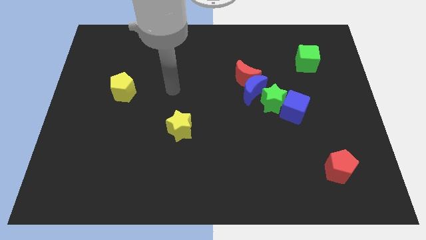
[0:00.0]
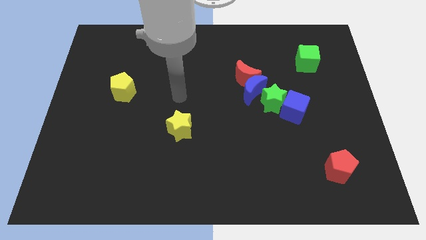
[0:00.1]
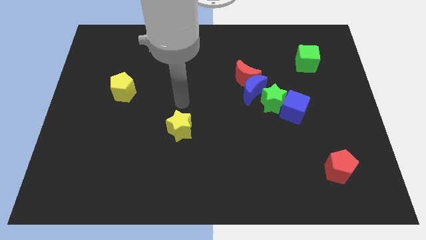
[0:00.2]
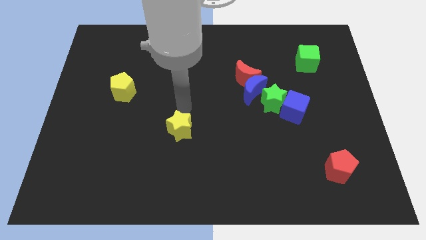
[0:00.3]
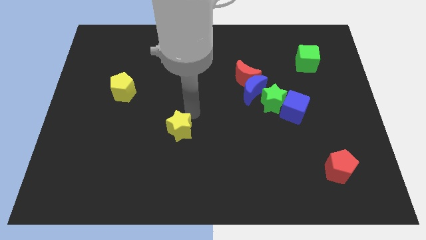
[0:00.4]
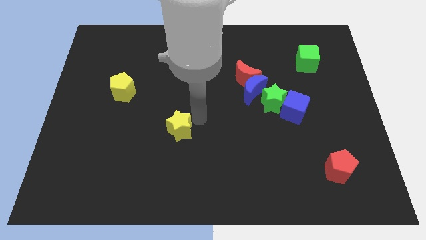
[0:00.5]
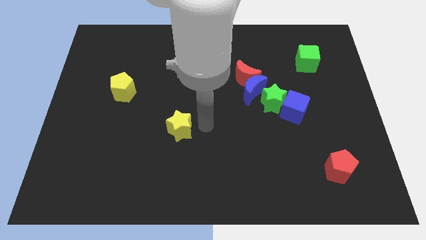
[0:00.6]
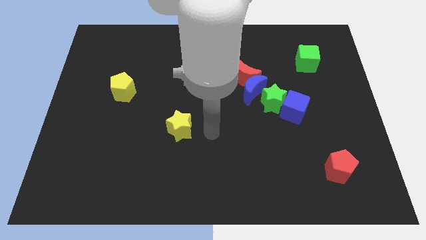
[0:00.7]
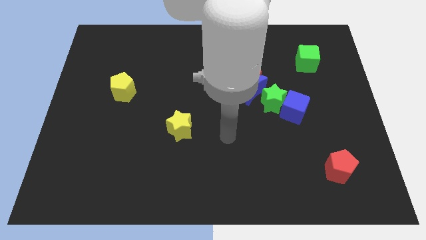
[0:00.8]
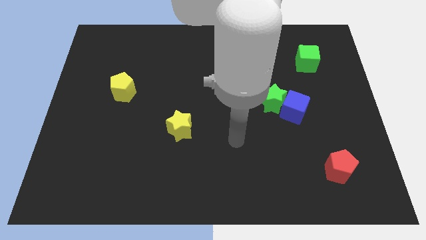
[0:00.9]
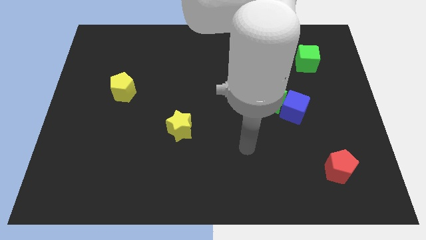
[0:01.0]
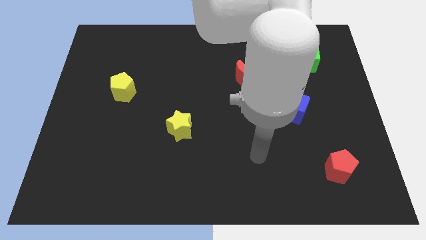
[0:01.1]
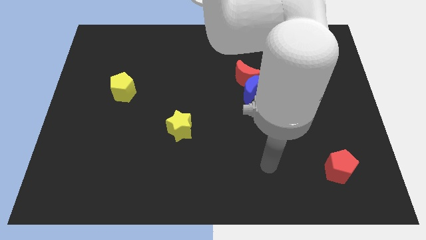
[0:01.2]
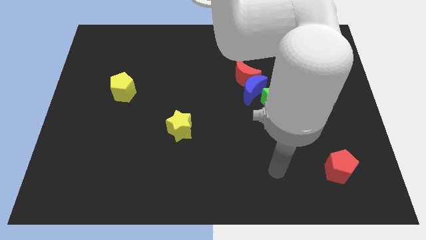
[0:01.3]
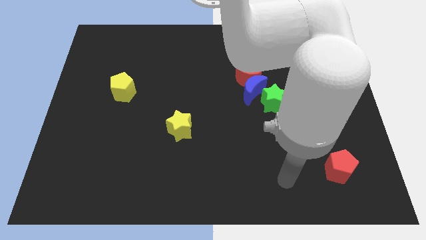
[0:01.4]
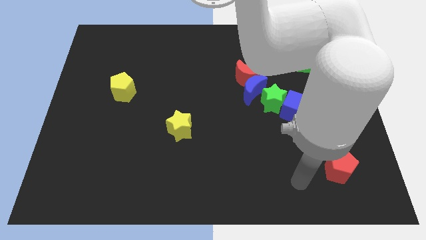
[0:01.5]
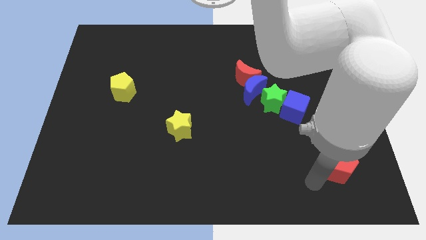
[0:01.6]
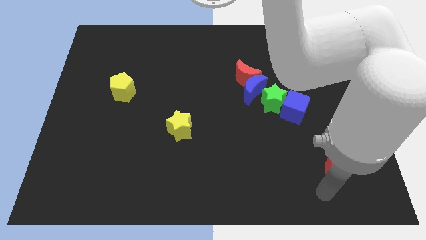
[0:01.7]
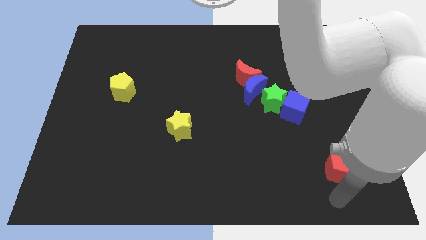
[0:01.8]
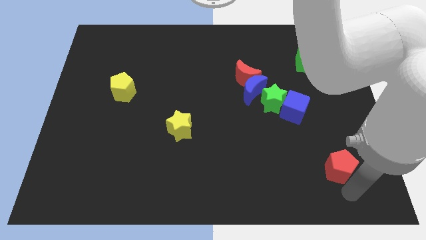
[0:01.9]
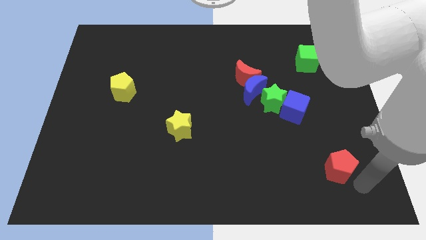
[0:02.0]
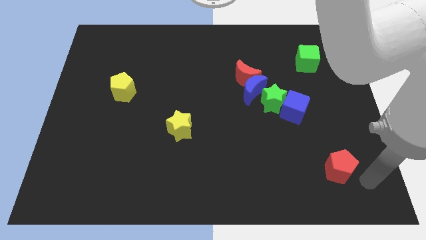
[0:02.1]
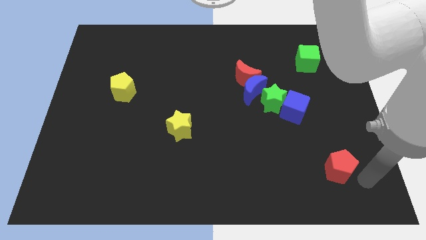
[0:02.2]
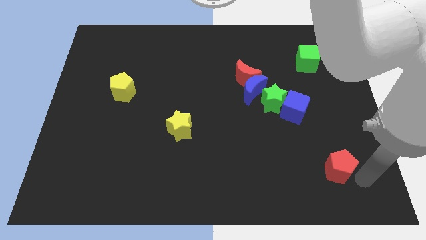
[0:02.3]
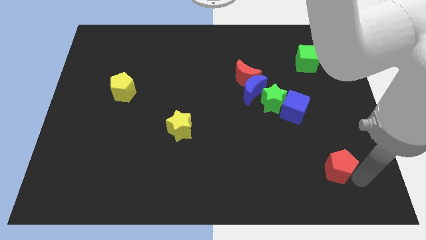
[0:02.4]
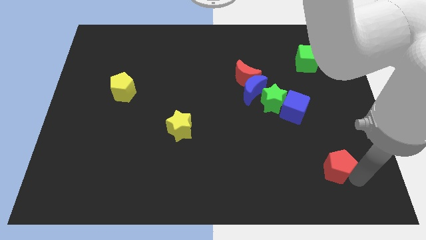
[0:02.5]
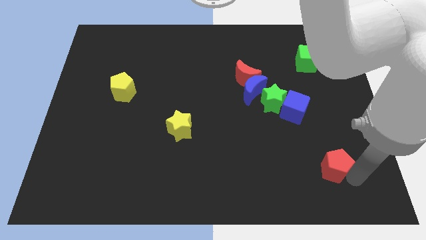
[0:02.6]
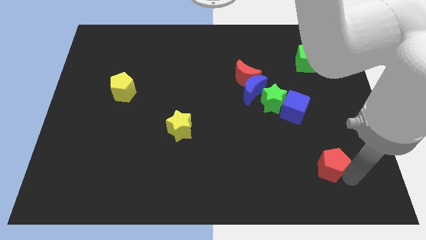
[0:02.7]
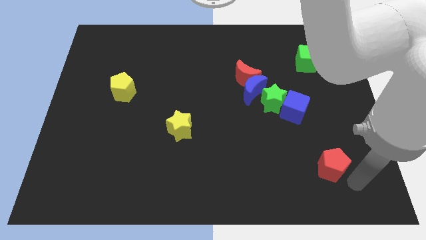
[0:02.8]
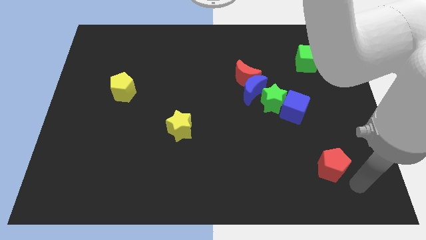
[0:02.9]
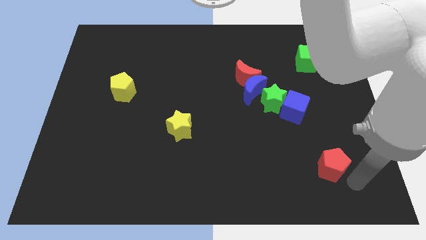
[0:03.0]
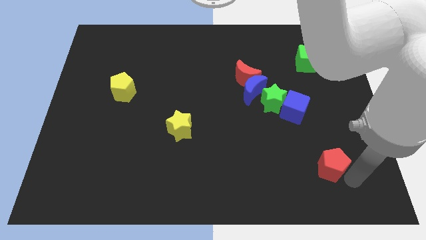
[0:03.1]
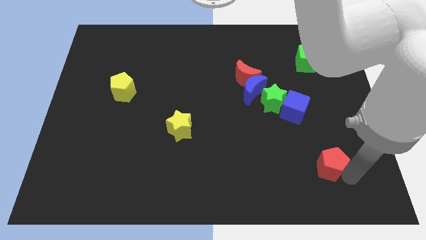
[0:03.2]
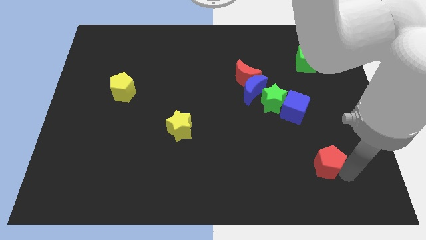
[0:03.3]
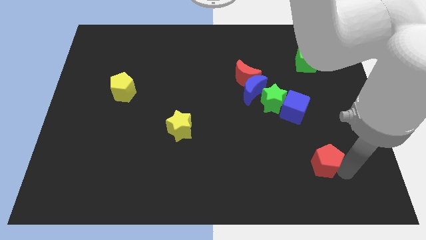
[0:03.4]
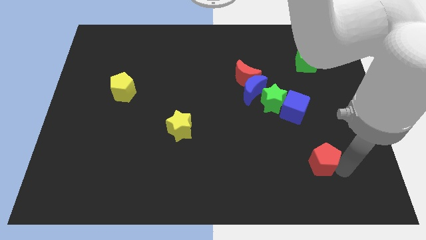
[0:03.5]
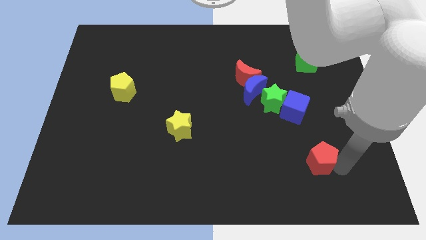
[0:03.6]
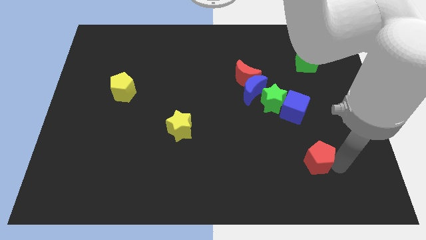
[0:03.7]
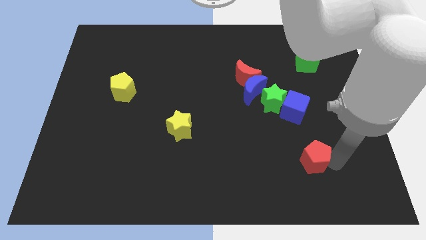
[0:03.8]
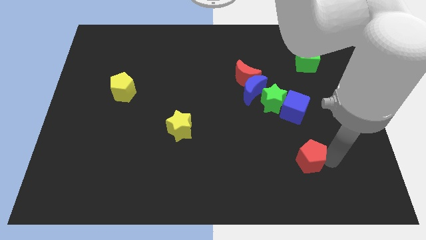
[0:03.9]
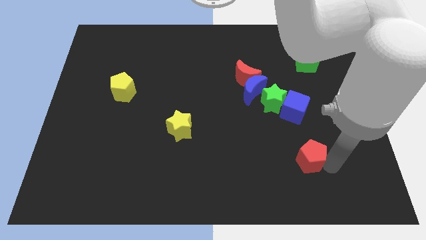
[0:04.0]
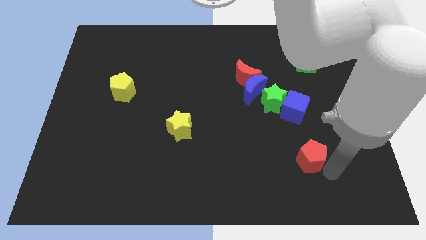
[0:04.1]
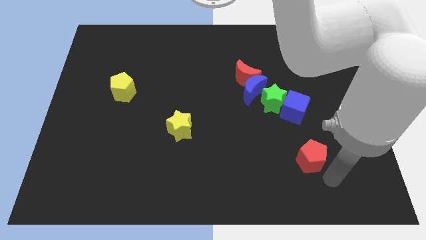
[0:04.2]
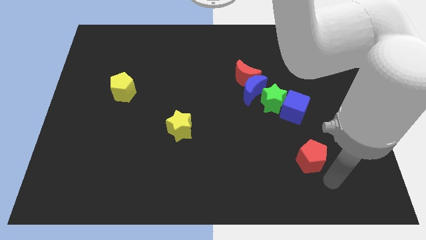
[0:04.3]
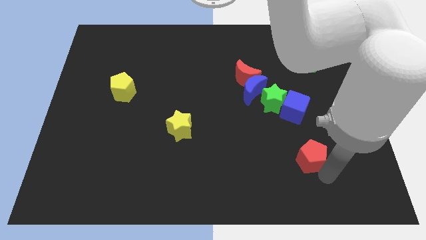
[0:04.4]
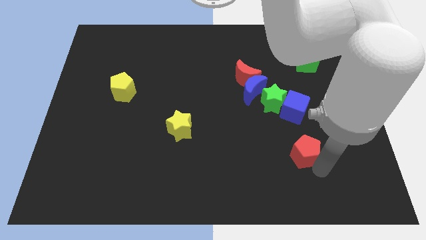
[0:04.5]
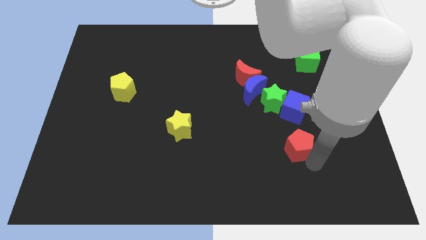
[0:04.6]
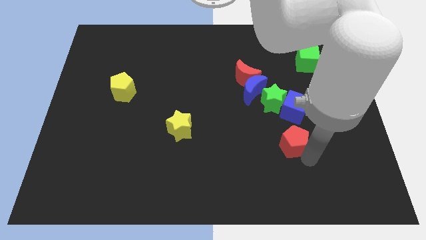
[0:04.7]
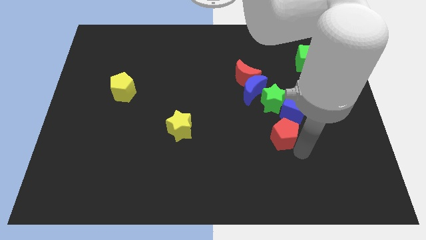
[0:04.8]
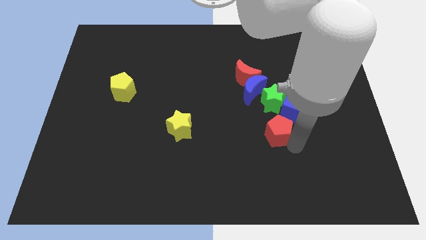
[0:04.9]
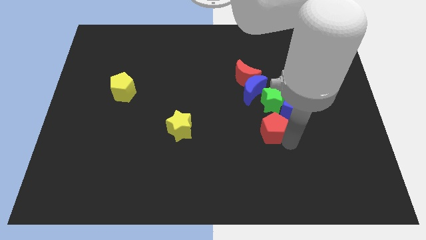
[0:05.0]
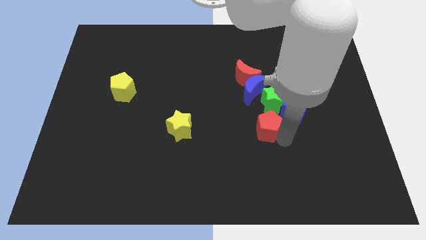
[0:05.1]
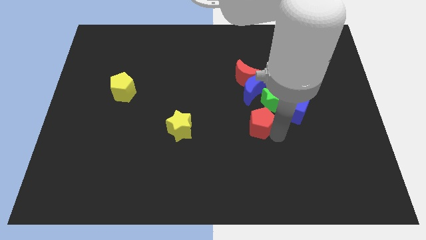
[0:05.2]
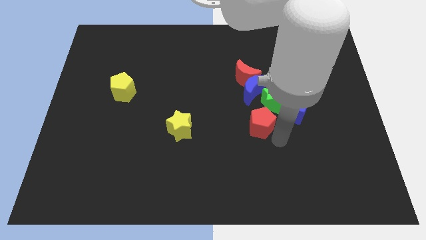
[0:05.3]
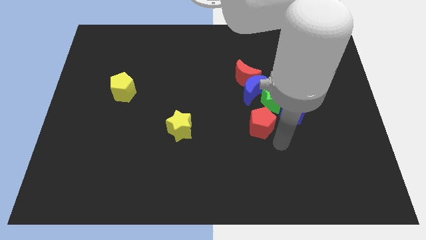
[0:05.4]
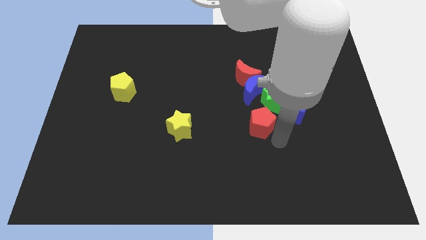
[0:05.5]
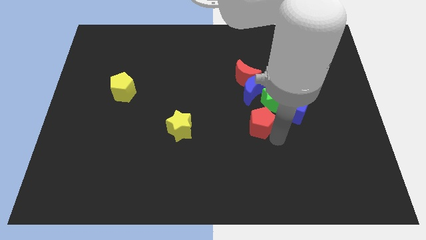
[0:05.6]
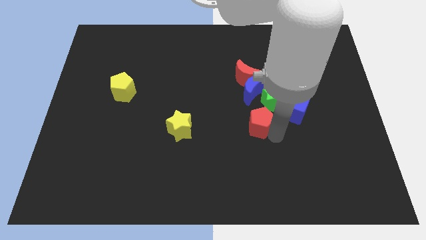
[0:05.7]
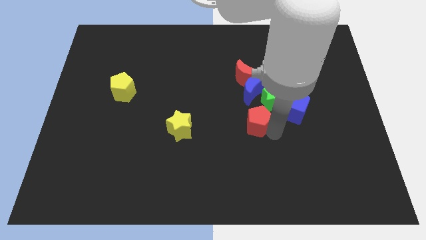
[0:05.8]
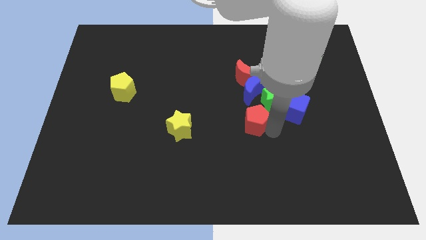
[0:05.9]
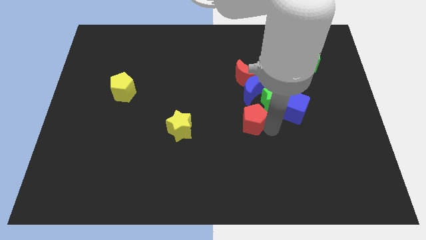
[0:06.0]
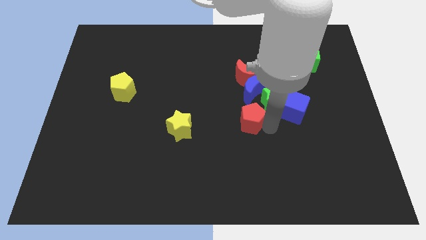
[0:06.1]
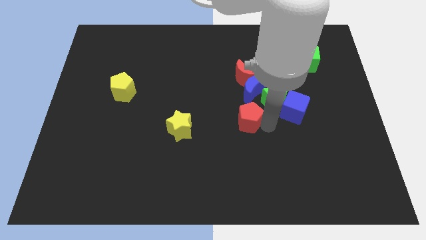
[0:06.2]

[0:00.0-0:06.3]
slide the red pentagon just left of the green star
